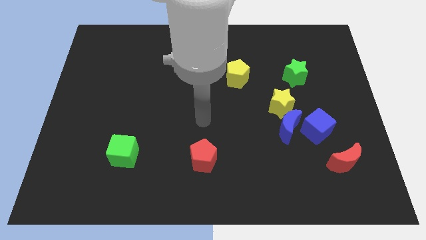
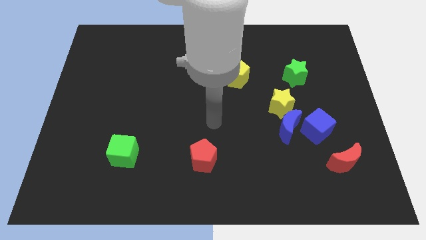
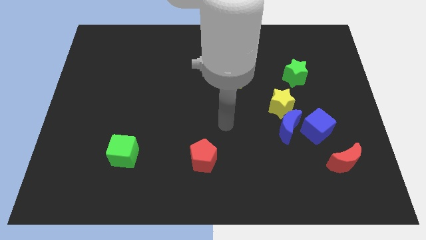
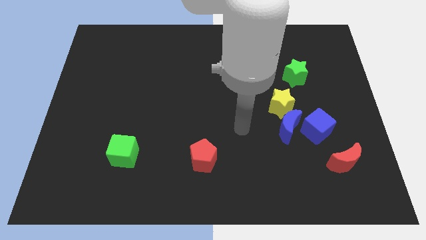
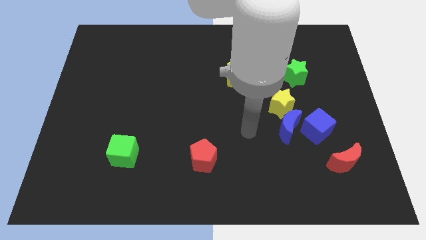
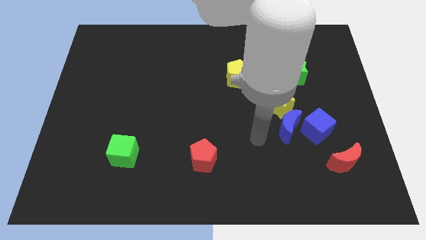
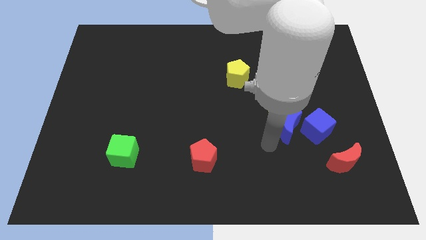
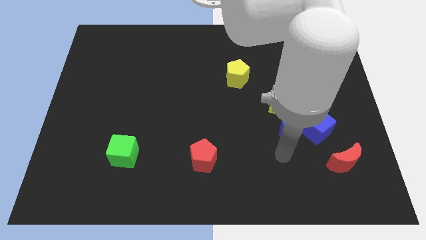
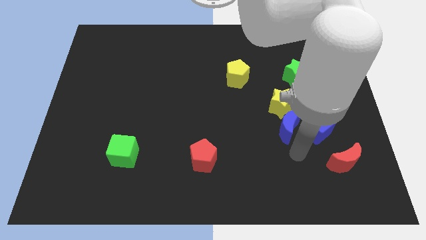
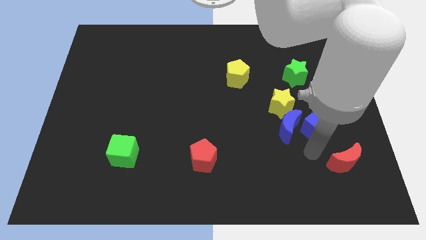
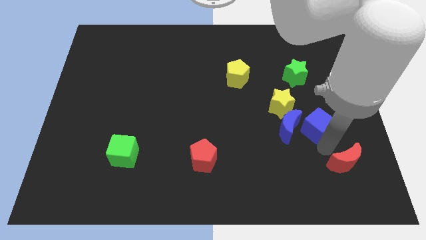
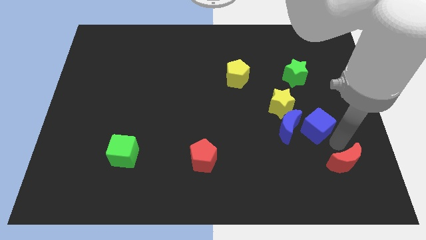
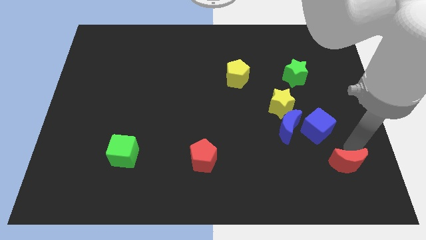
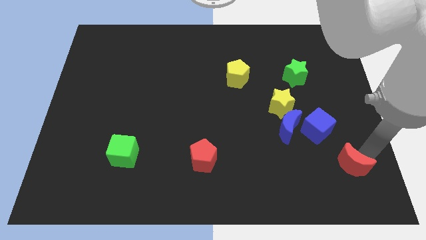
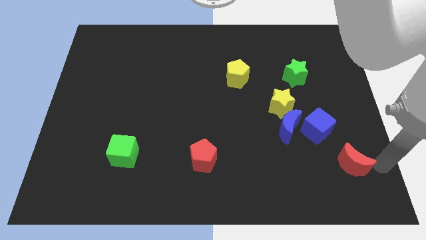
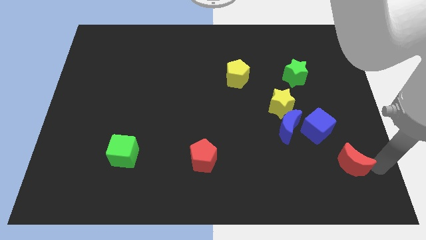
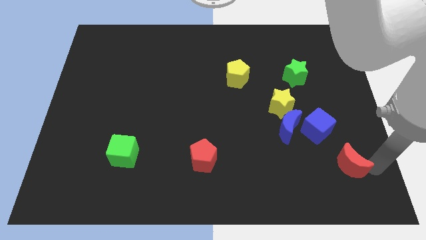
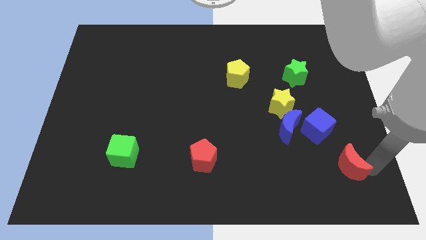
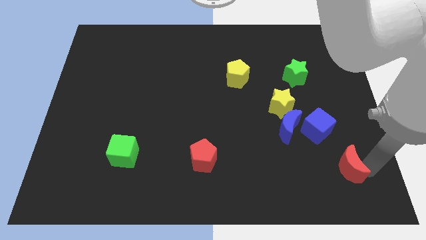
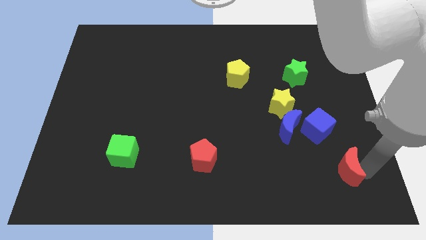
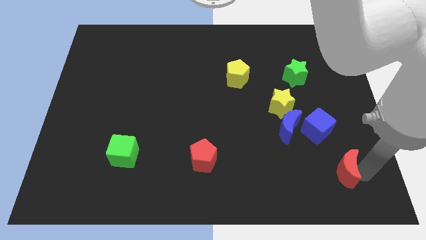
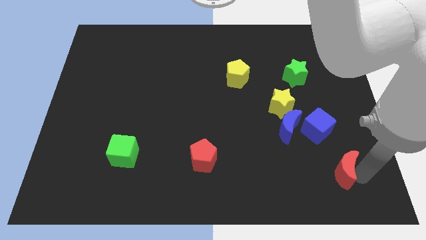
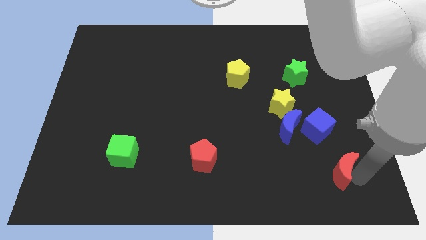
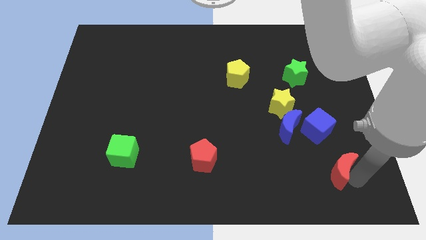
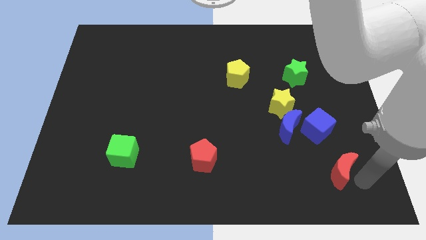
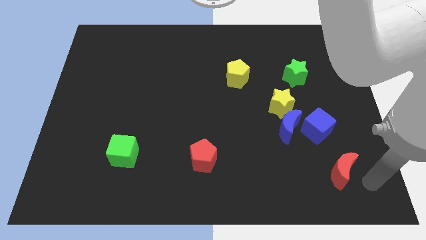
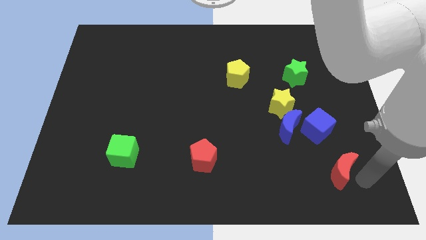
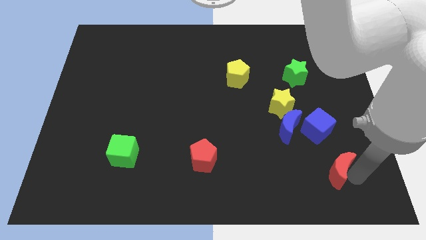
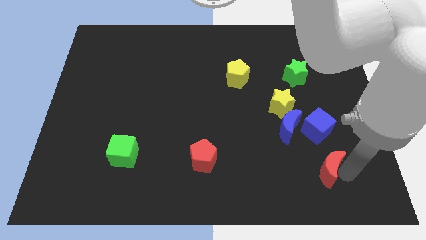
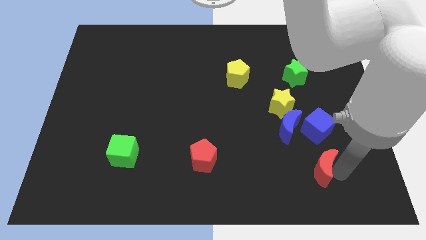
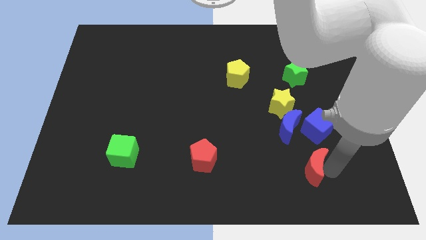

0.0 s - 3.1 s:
push the red moon to the left a little bit

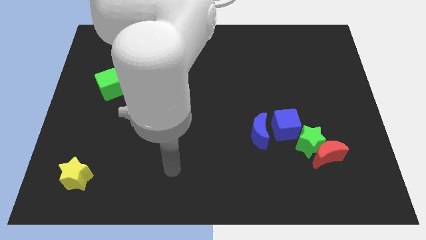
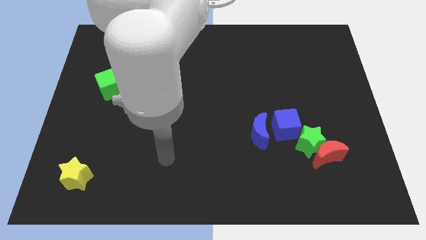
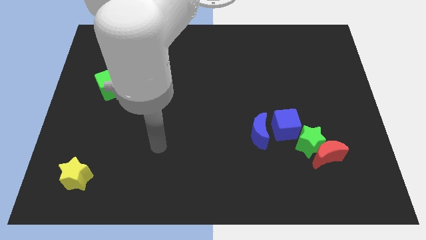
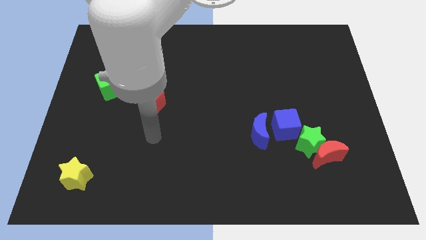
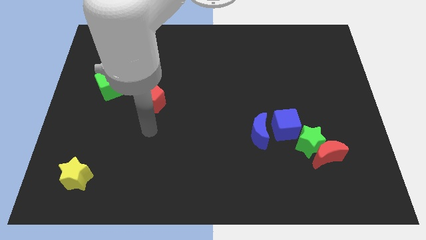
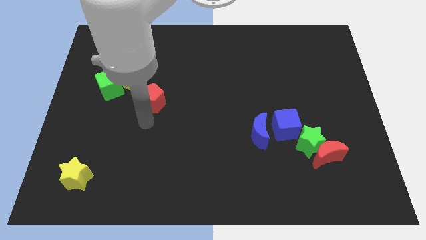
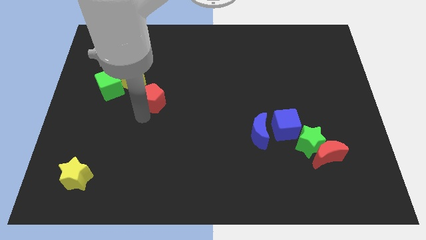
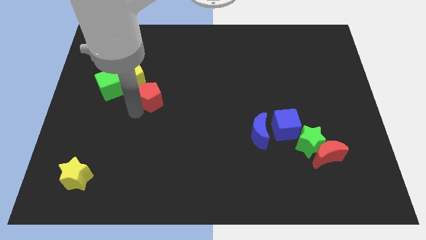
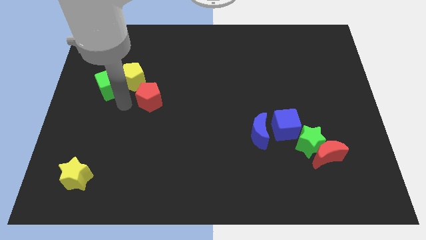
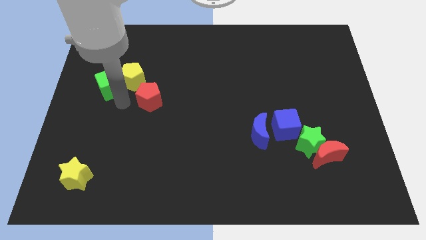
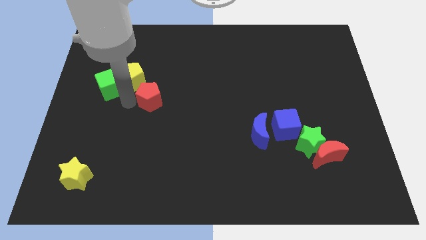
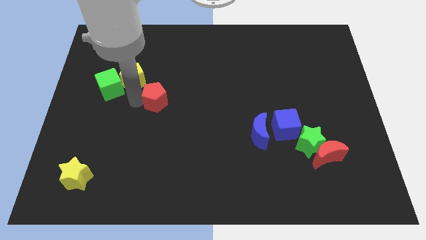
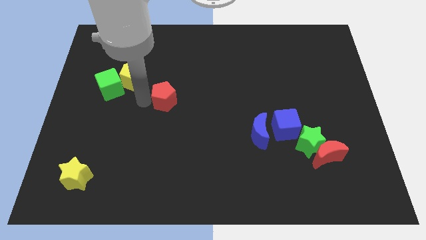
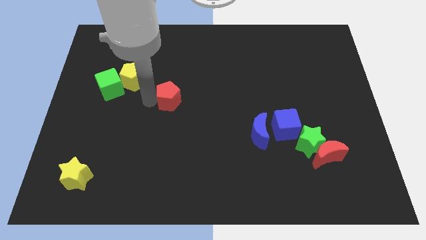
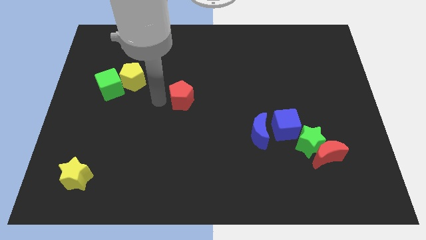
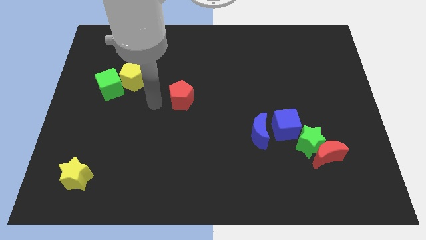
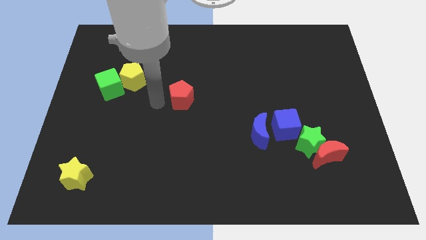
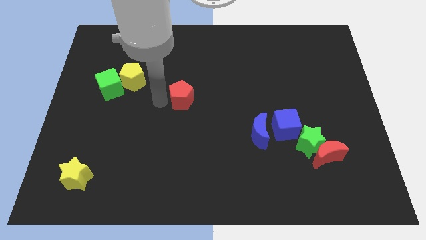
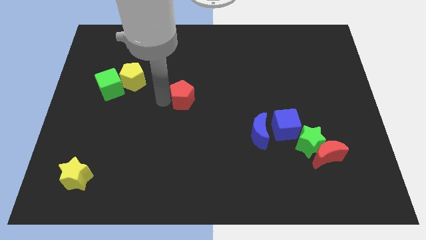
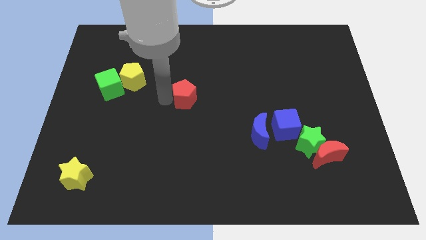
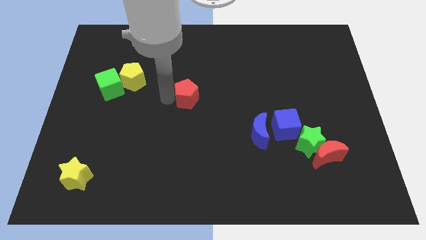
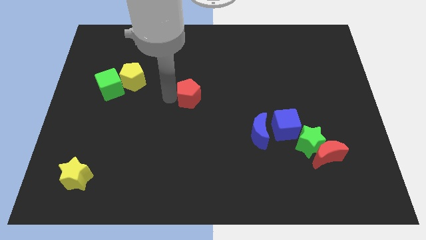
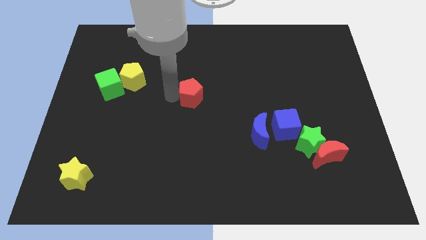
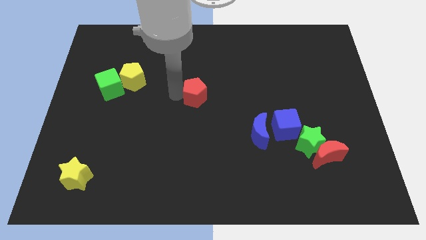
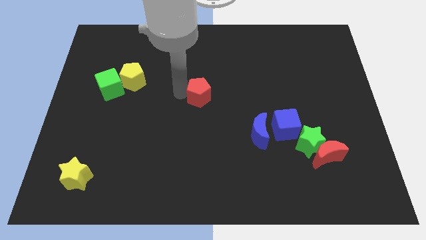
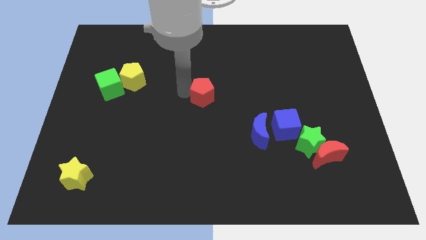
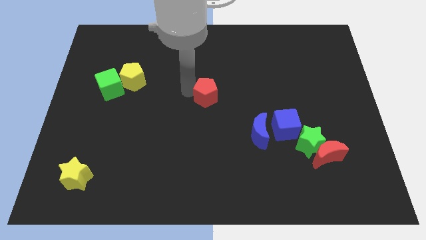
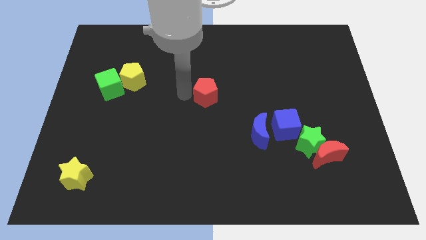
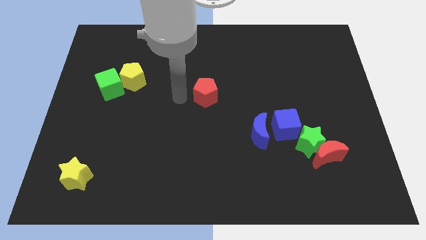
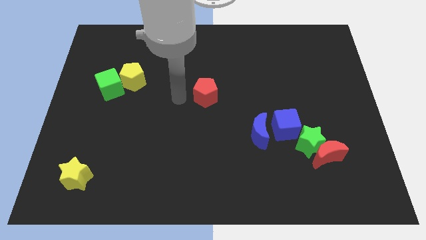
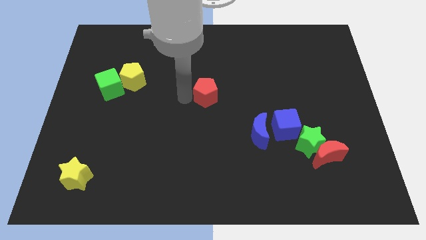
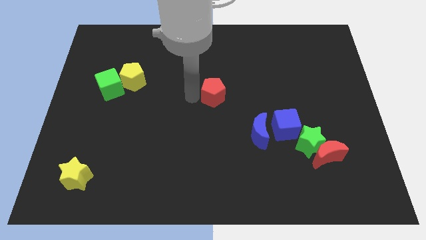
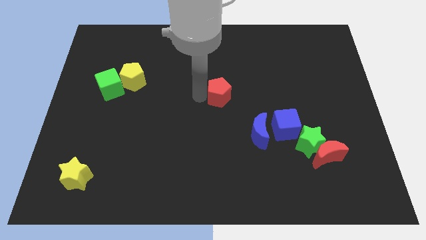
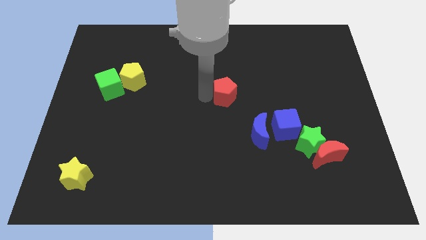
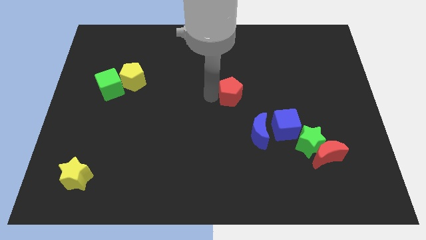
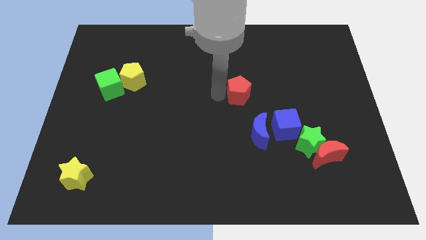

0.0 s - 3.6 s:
slide the red pentagon to the right

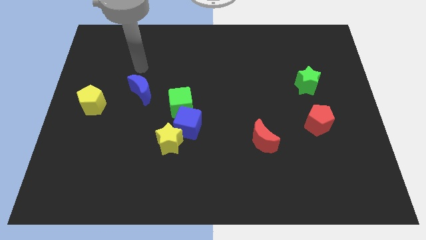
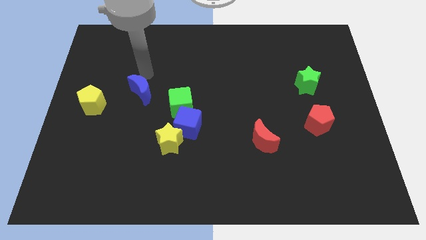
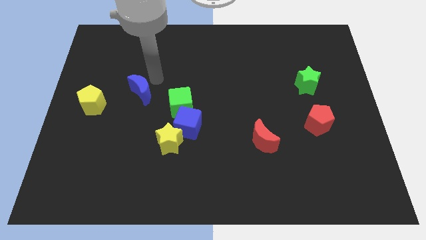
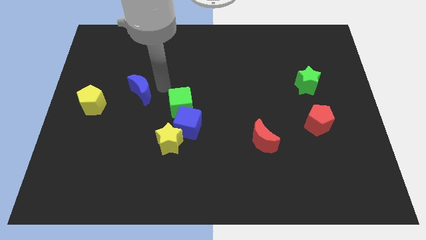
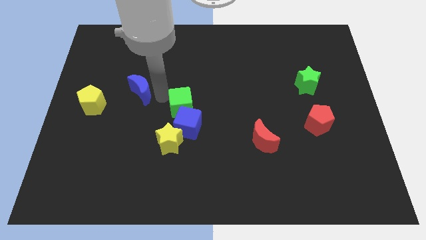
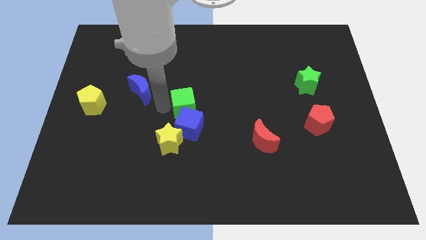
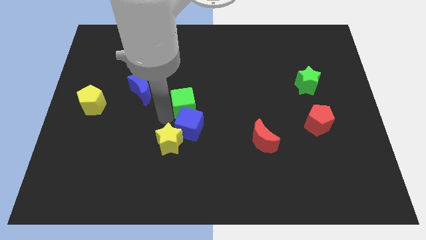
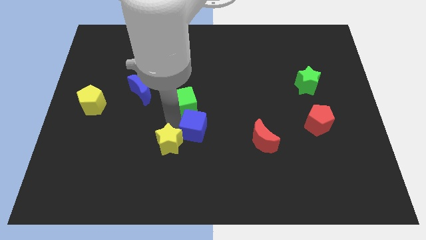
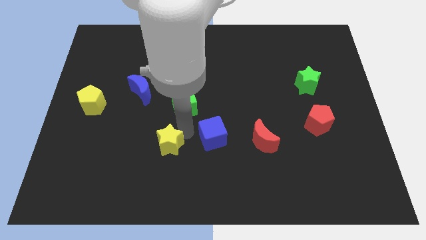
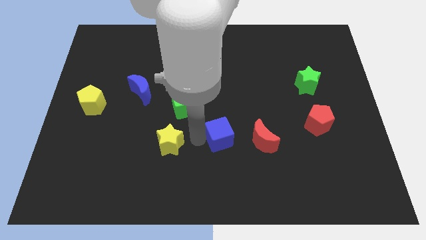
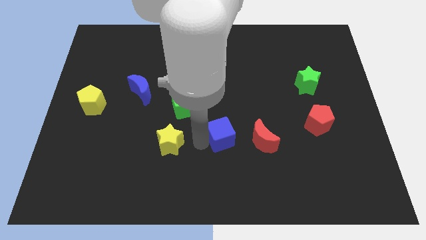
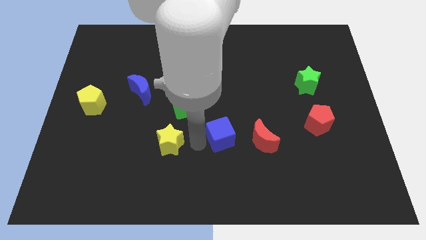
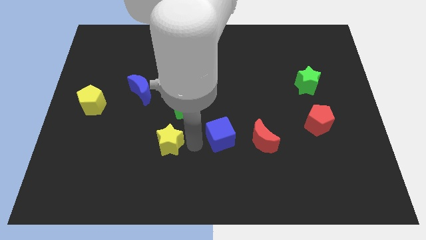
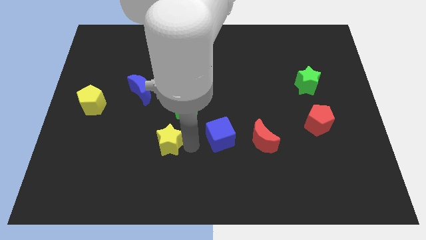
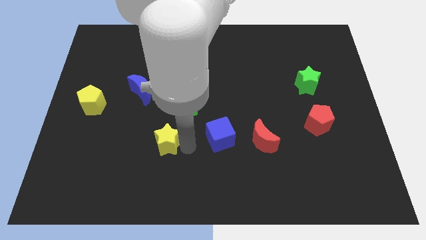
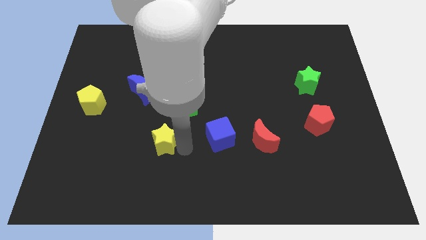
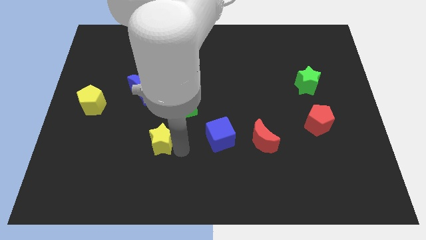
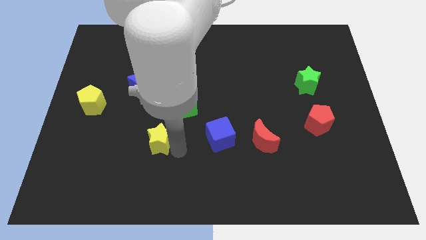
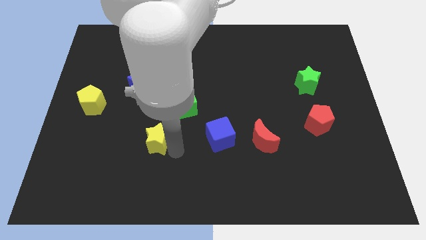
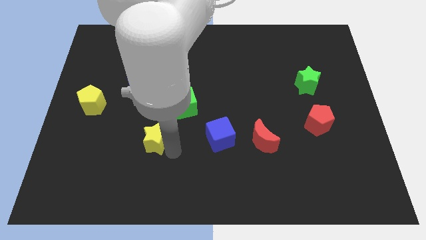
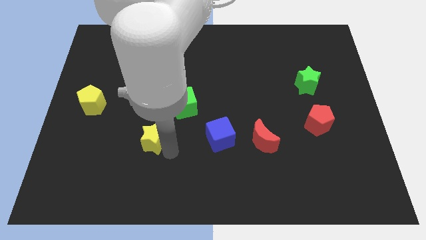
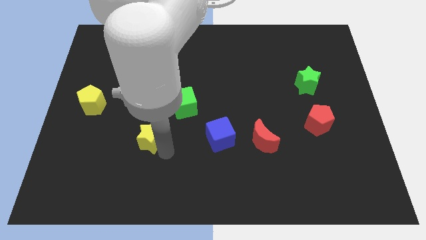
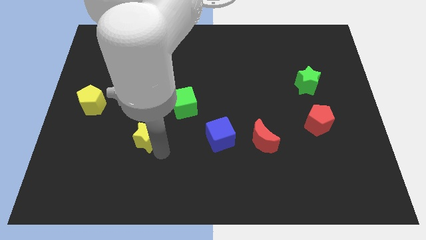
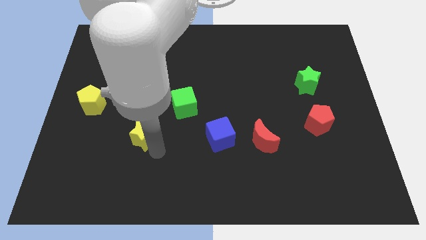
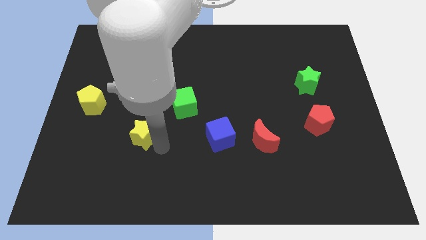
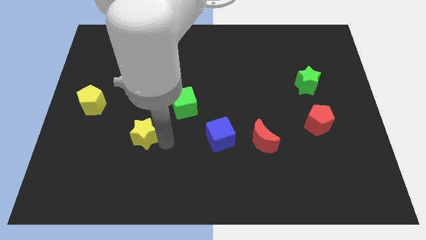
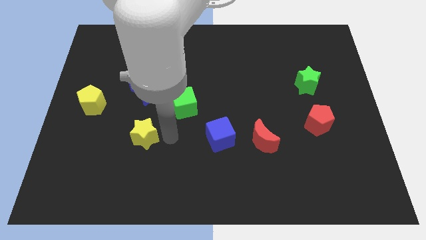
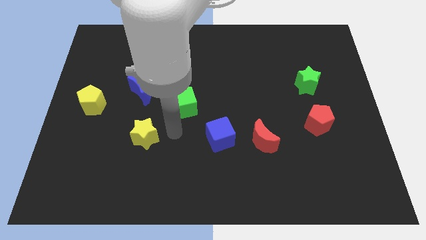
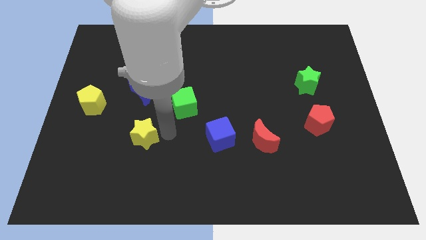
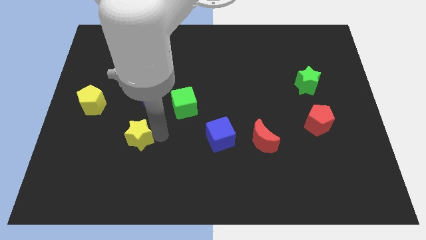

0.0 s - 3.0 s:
slightly push the yellow star to the left
